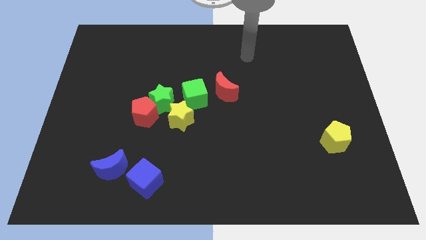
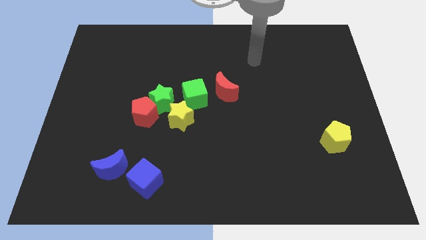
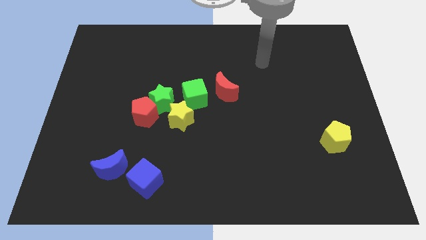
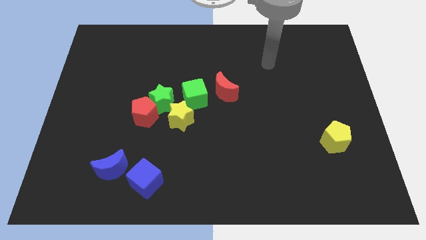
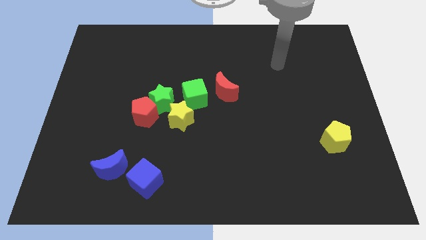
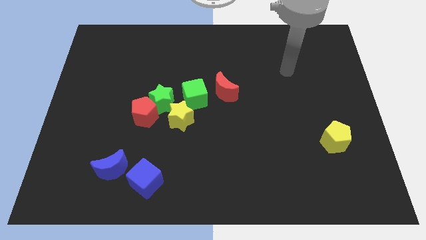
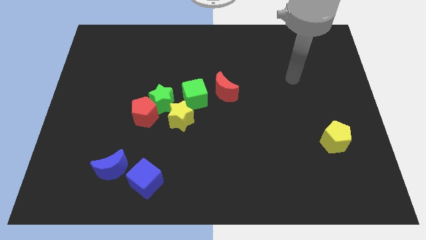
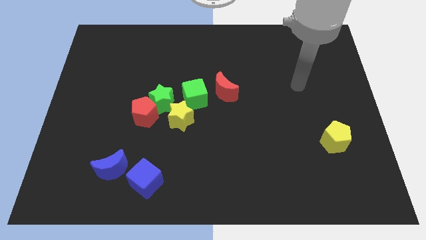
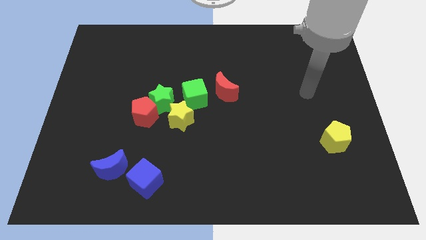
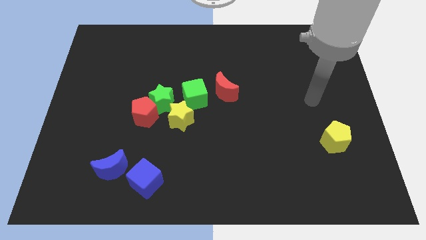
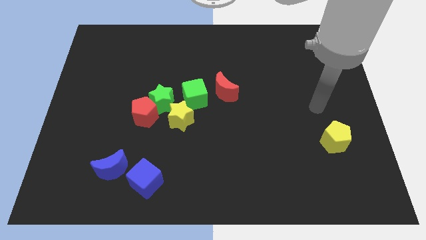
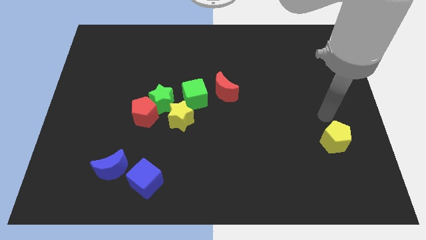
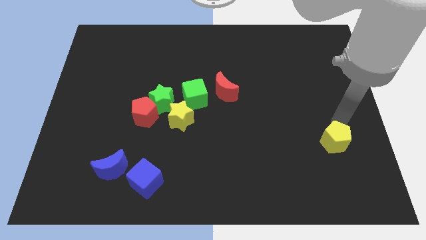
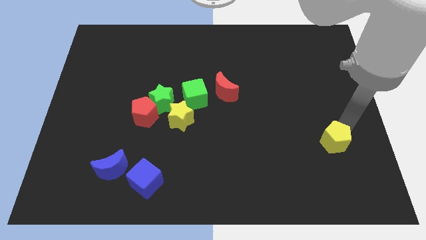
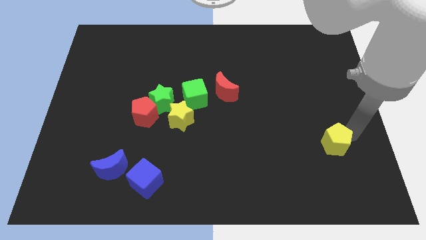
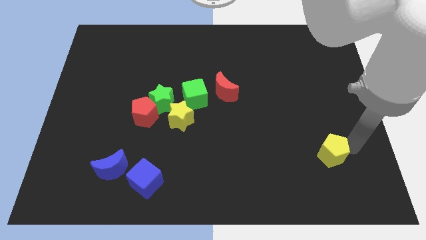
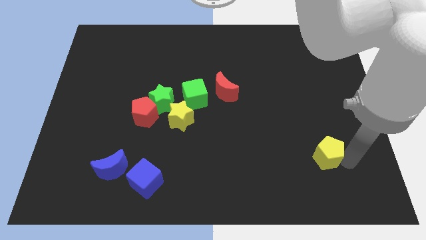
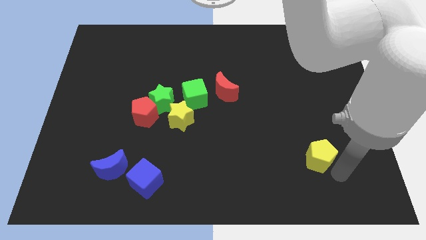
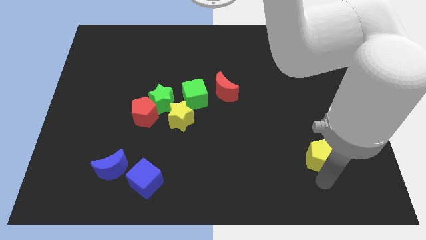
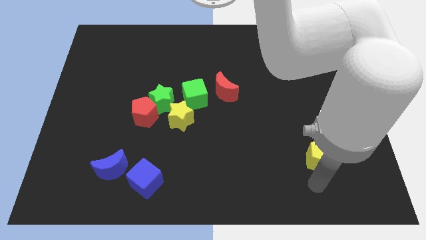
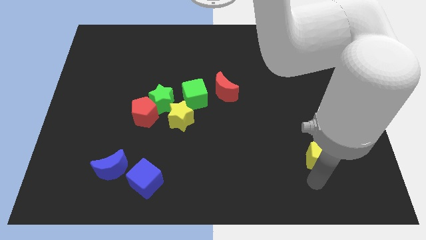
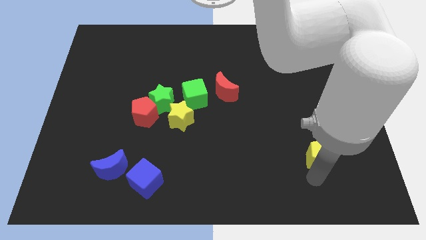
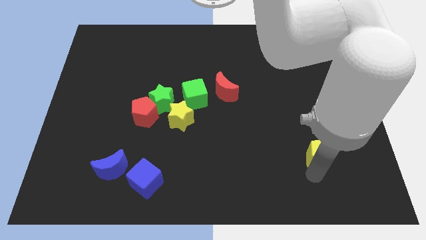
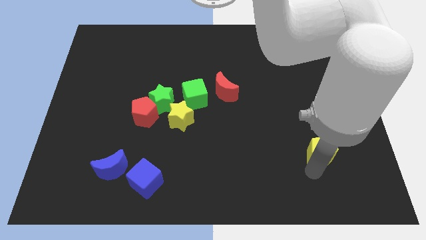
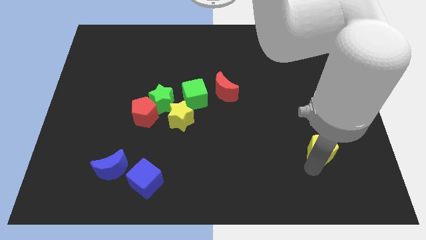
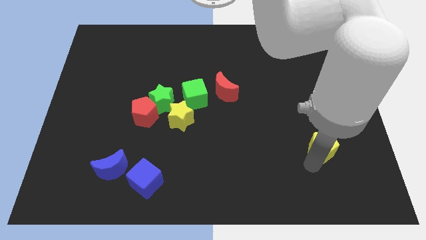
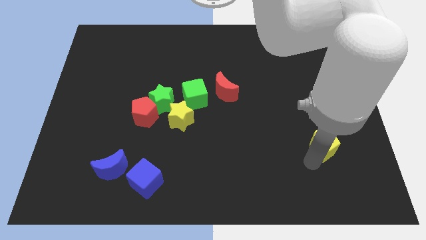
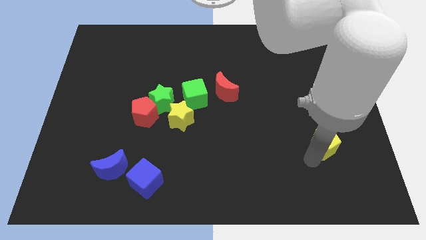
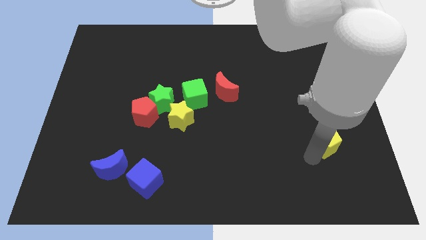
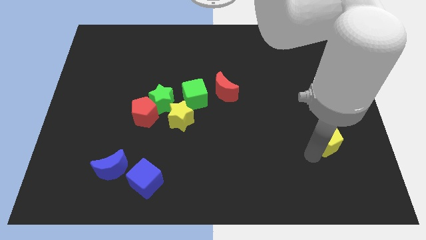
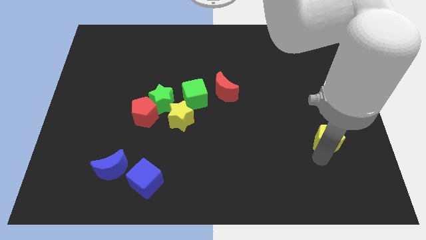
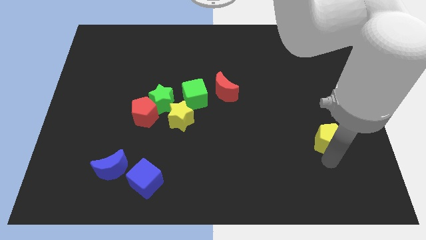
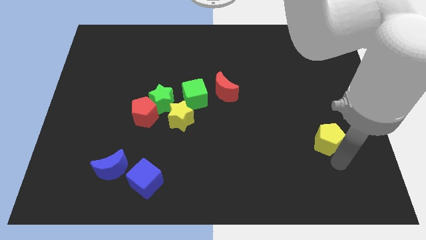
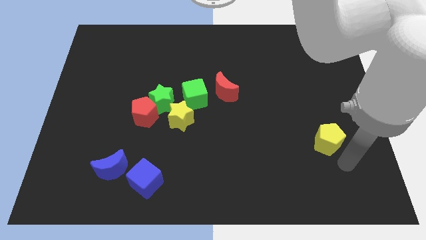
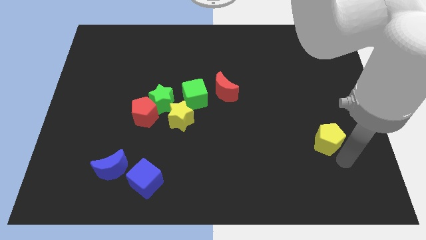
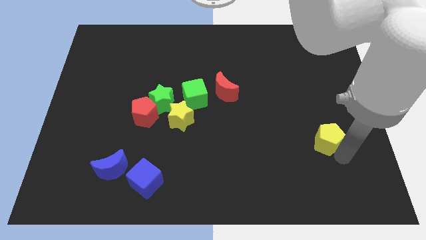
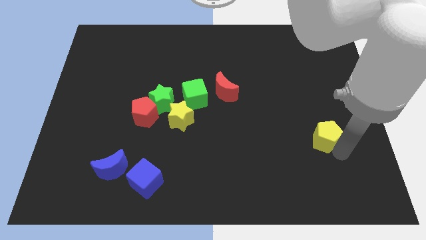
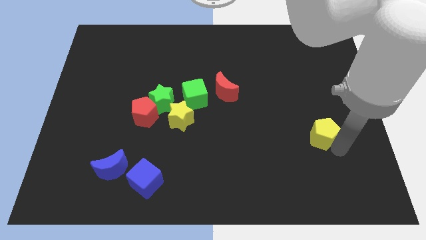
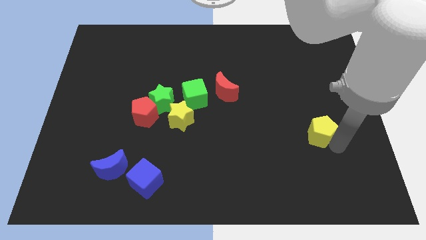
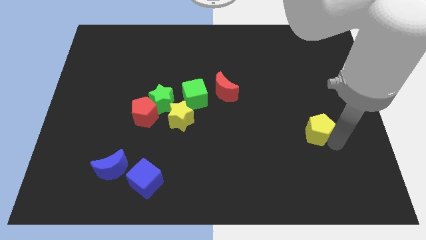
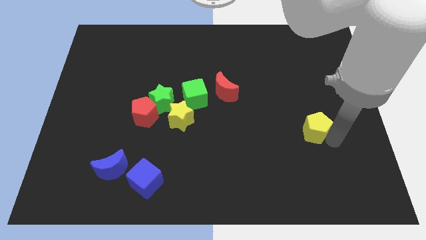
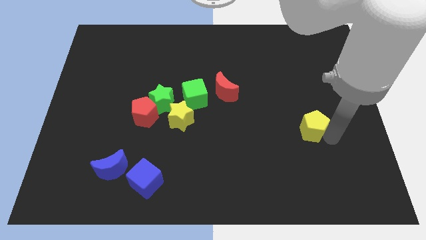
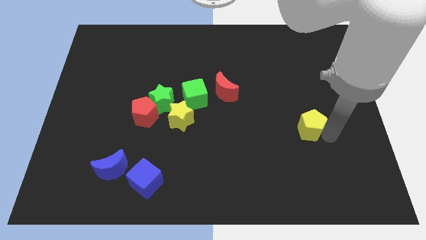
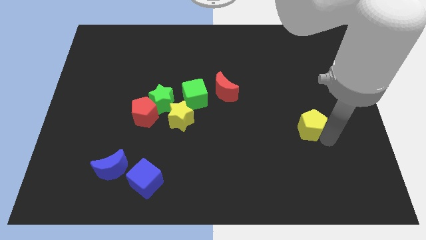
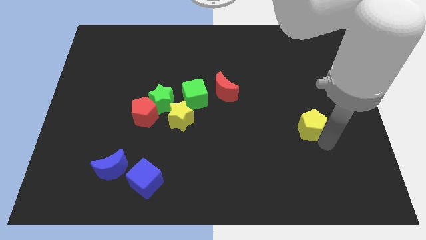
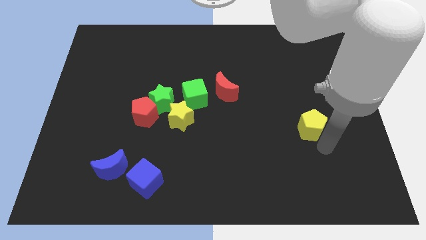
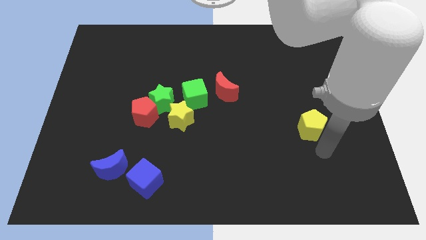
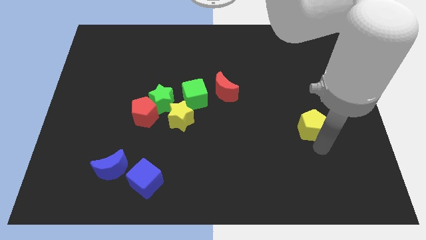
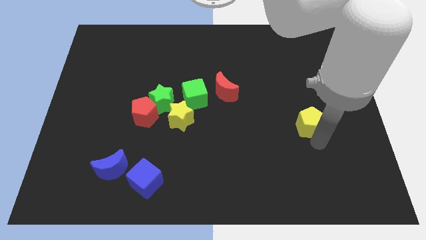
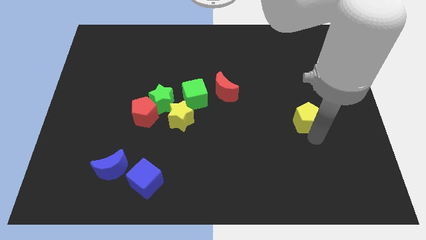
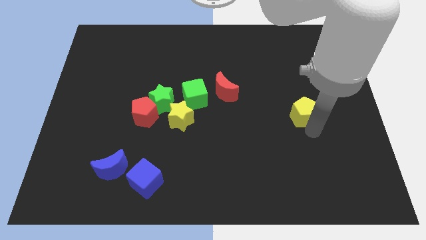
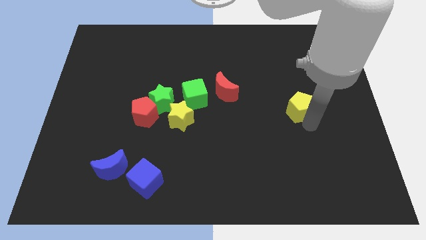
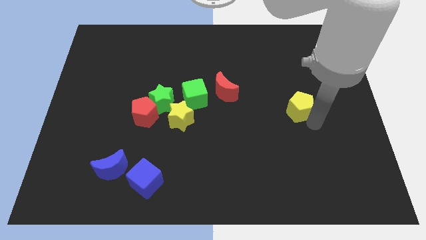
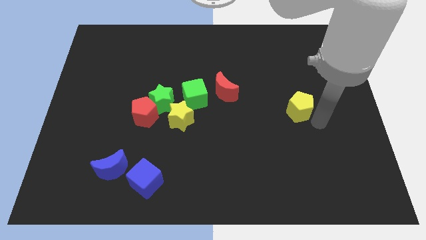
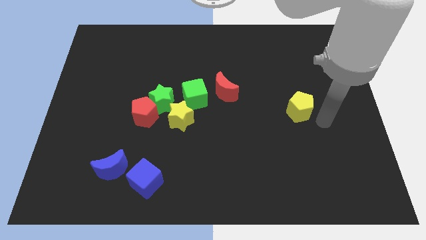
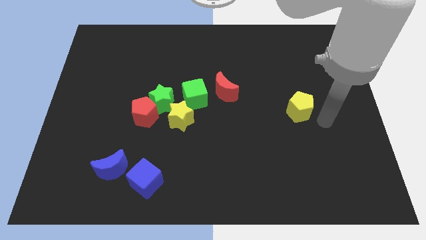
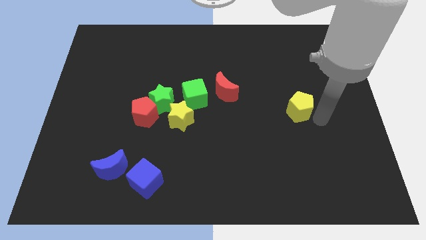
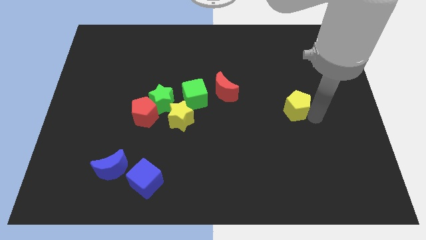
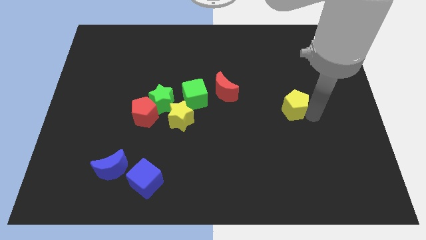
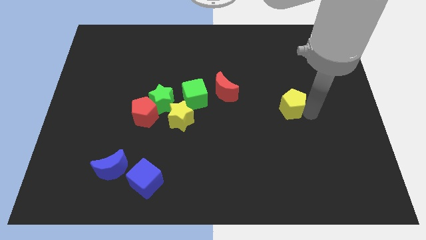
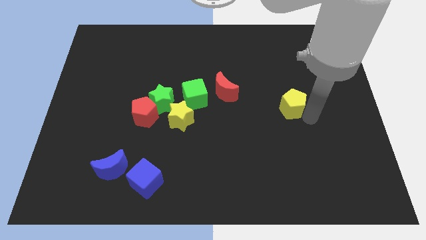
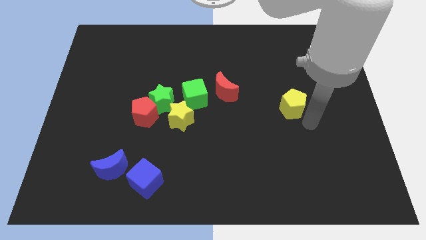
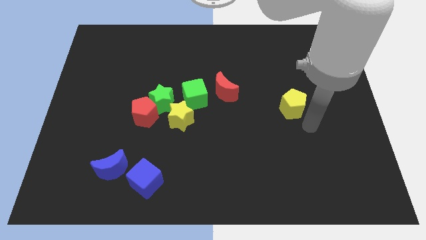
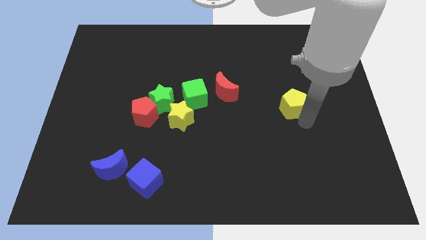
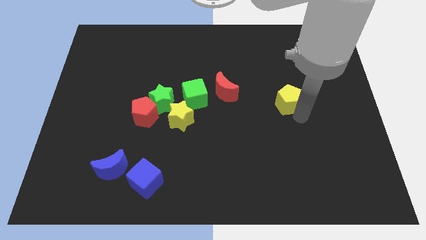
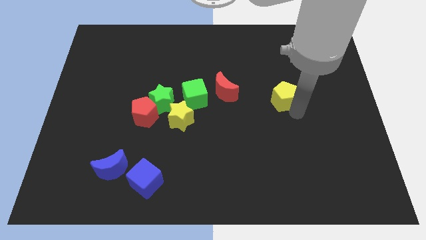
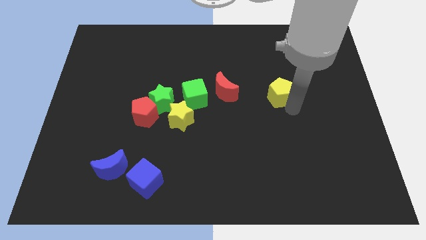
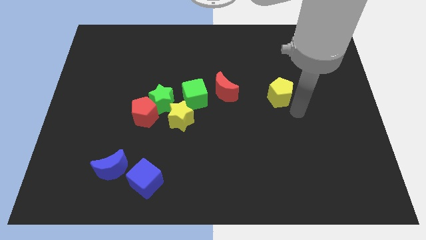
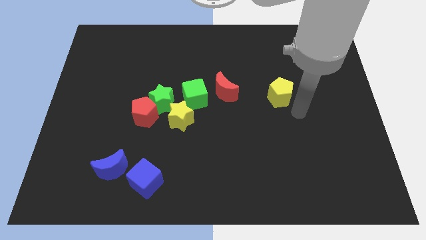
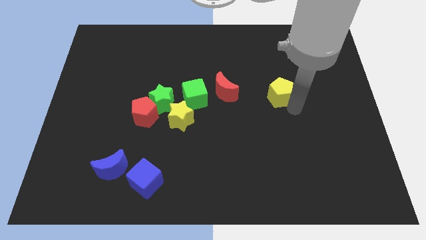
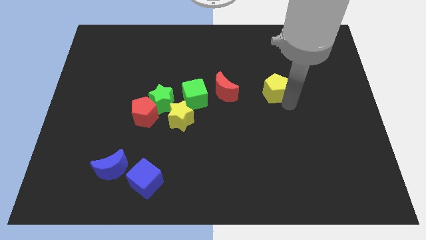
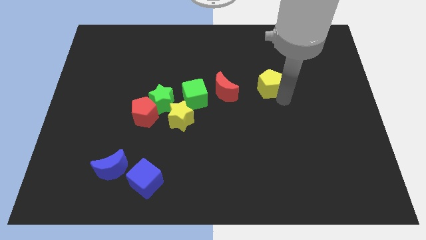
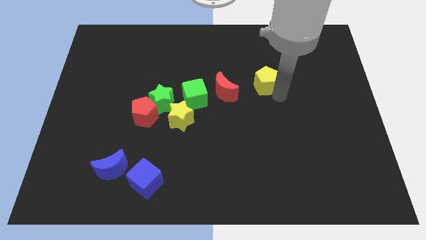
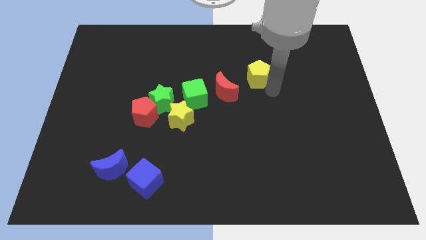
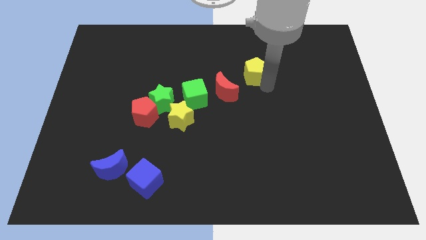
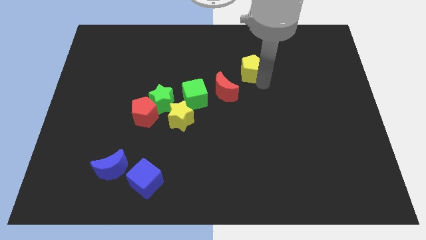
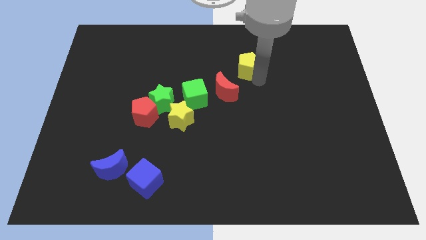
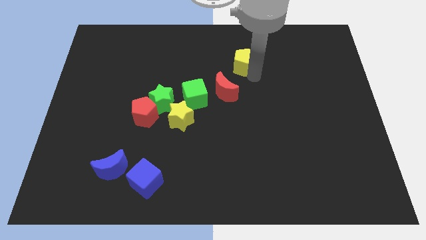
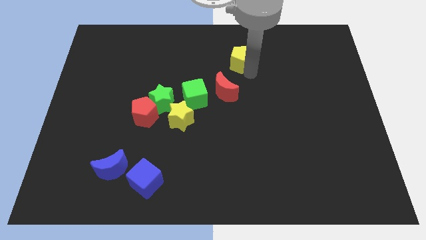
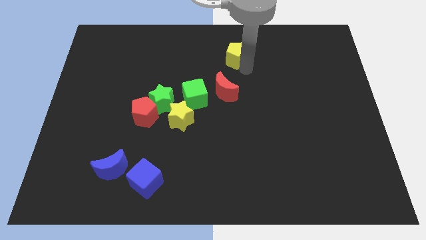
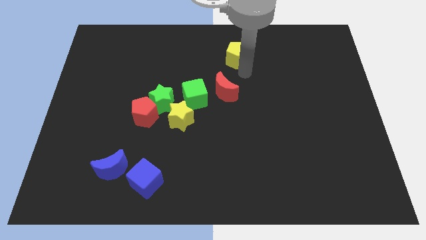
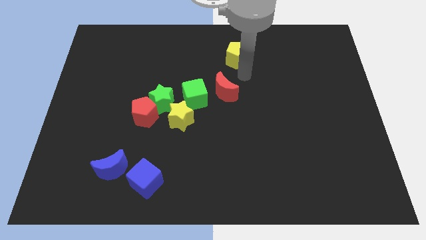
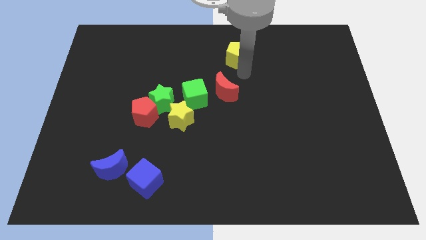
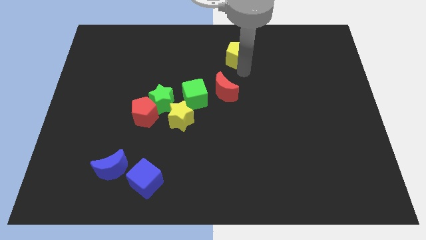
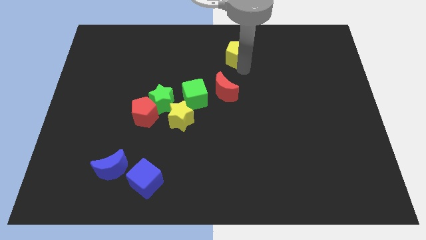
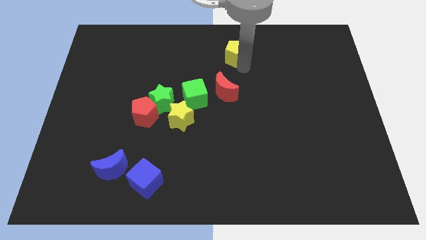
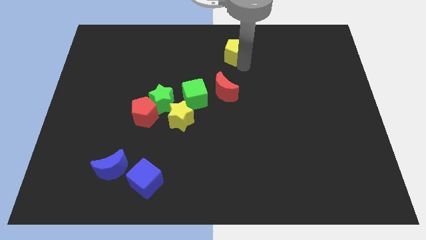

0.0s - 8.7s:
slide the yellow pentagon to the towards your base
